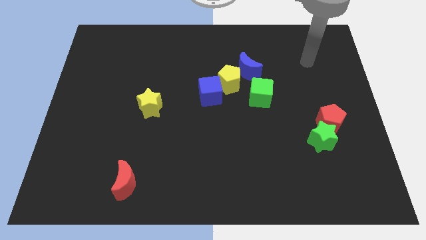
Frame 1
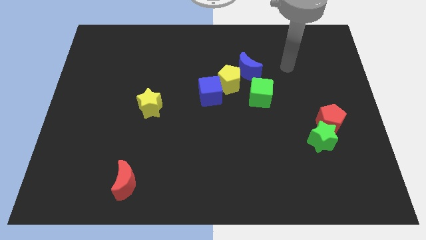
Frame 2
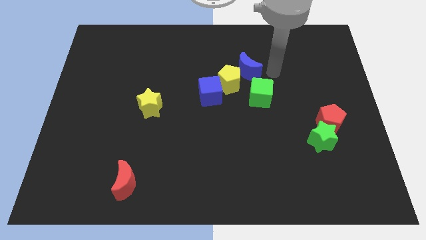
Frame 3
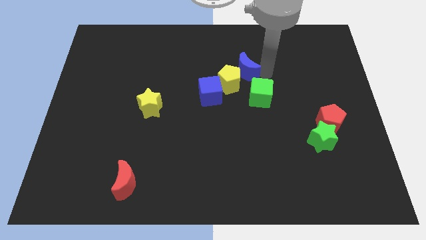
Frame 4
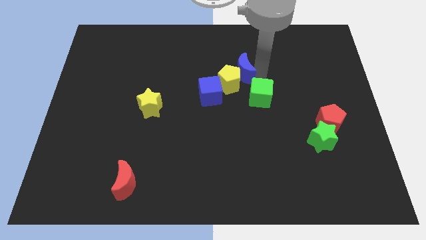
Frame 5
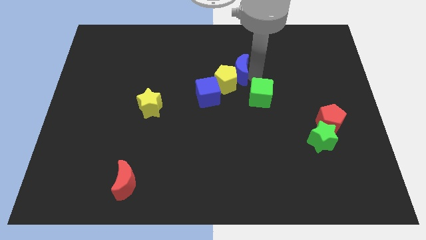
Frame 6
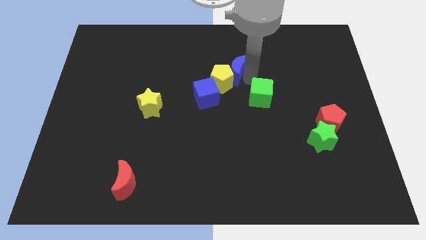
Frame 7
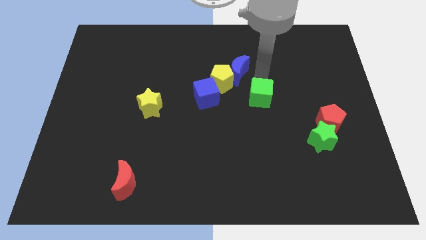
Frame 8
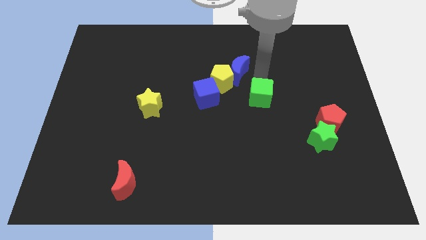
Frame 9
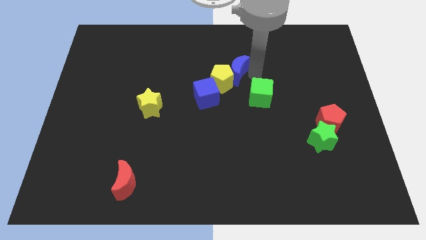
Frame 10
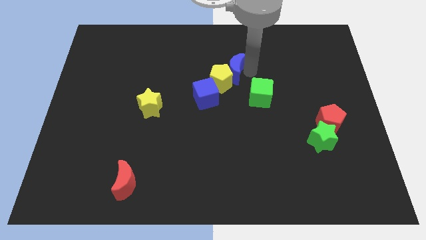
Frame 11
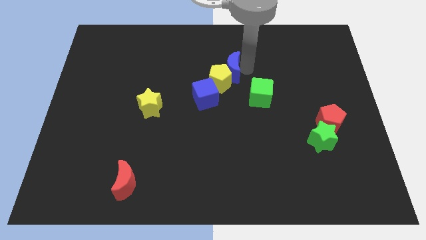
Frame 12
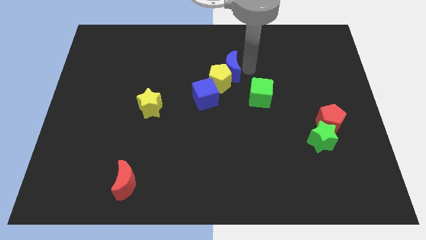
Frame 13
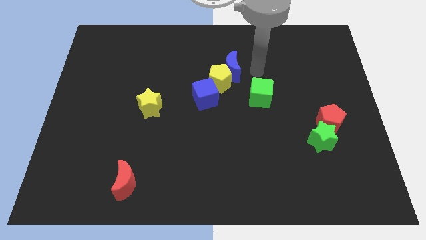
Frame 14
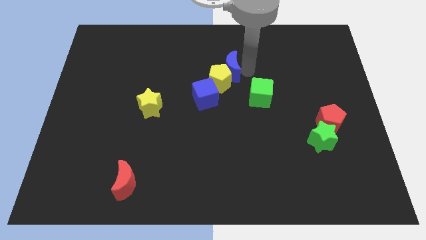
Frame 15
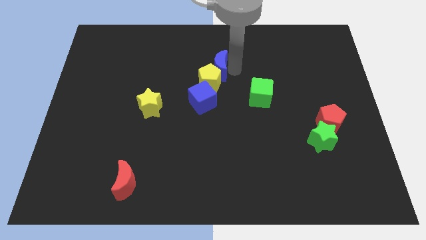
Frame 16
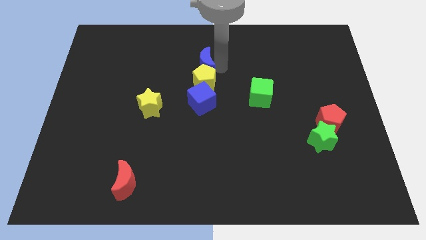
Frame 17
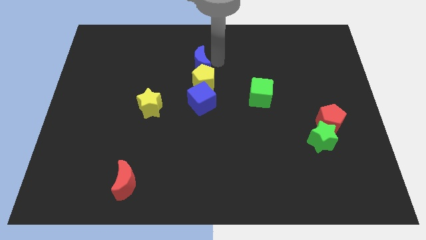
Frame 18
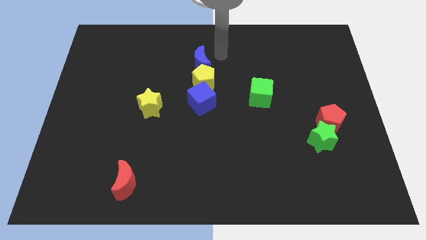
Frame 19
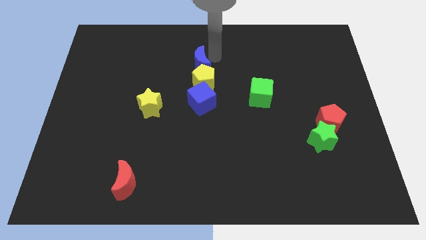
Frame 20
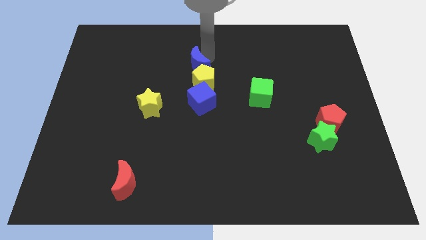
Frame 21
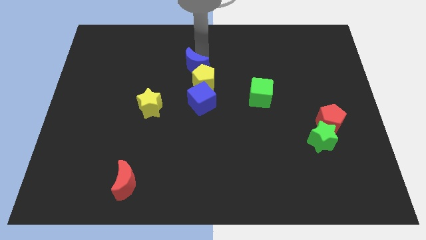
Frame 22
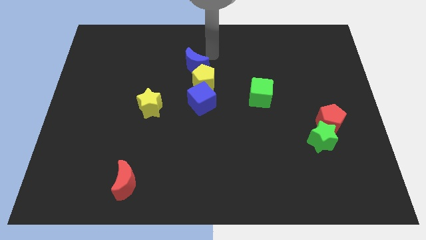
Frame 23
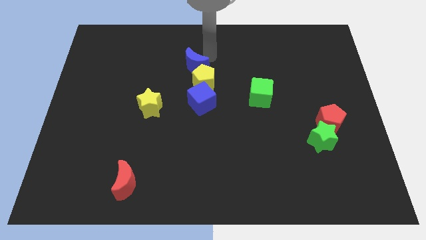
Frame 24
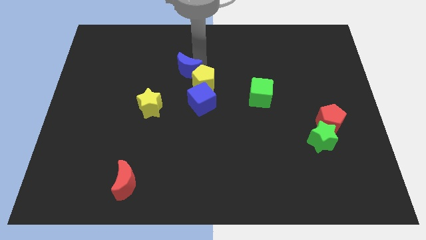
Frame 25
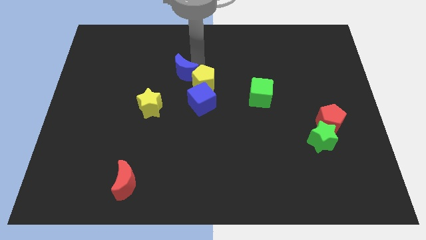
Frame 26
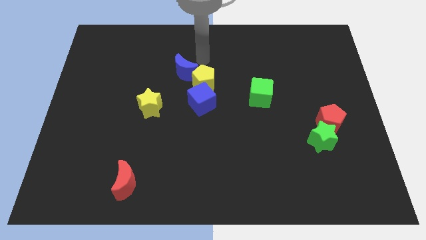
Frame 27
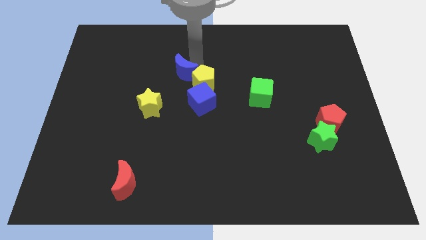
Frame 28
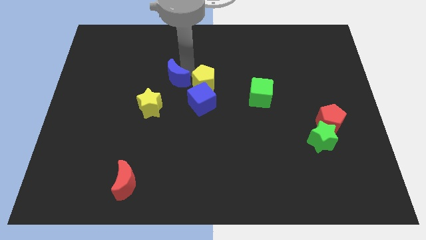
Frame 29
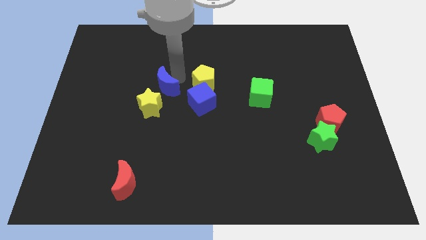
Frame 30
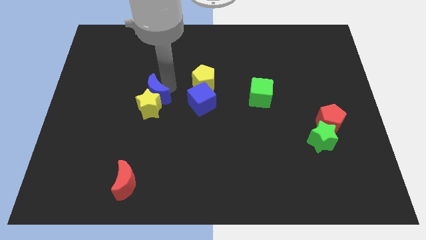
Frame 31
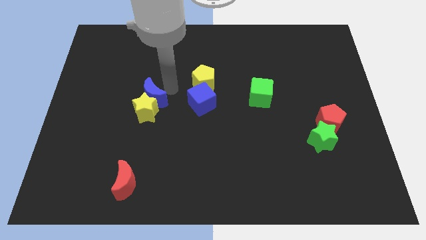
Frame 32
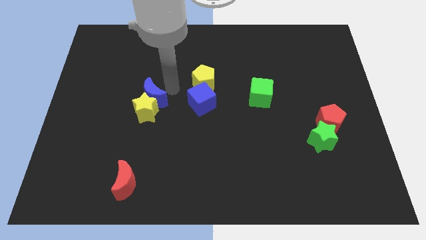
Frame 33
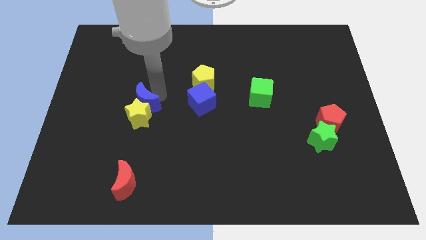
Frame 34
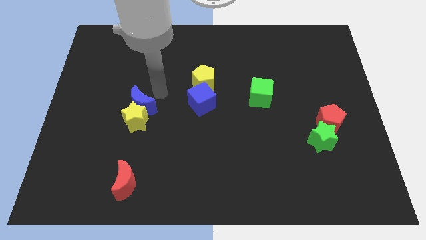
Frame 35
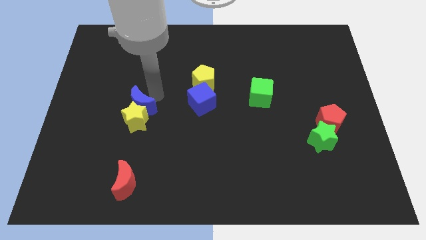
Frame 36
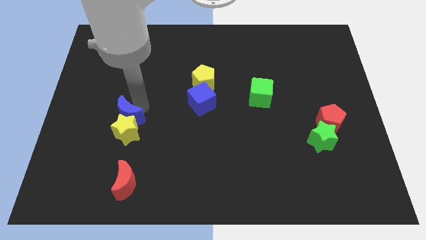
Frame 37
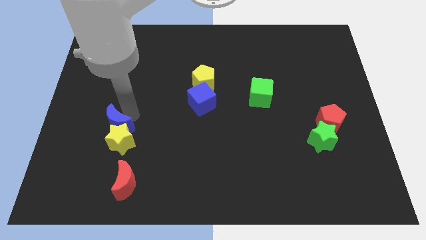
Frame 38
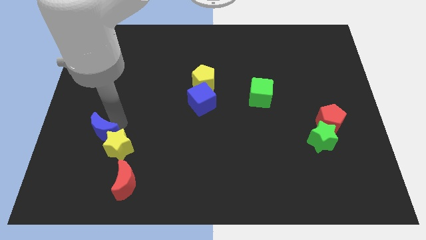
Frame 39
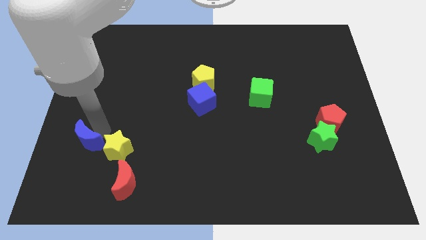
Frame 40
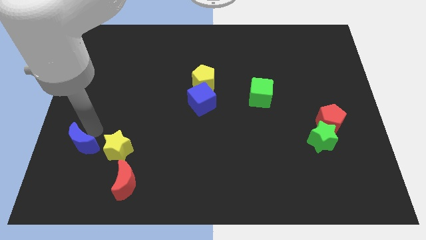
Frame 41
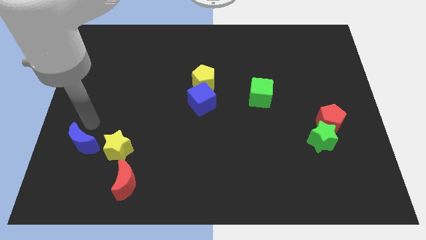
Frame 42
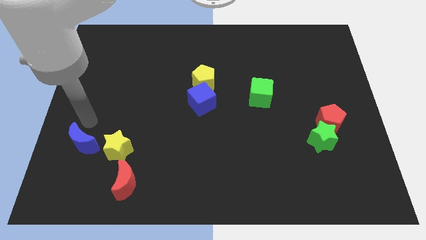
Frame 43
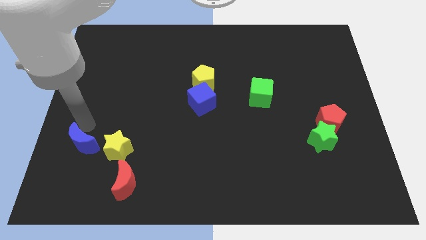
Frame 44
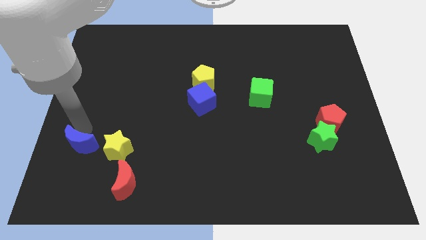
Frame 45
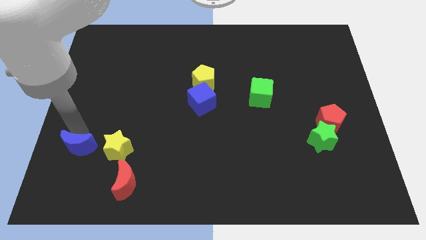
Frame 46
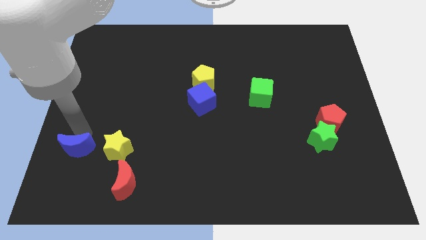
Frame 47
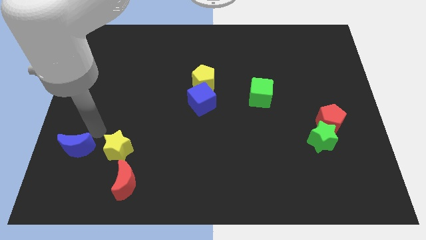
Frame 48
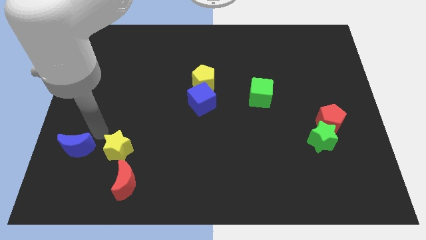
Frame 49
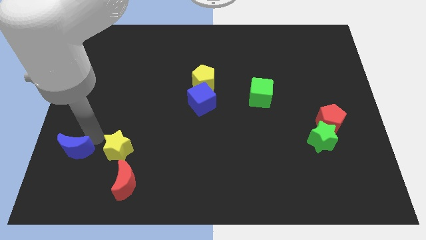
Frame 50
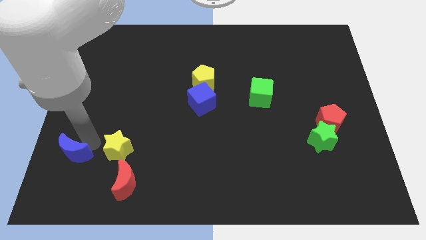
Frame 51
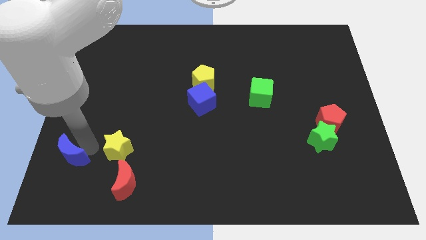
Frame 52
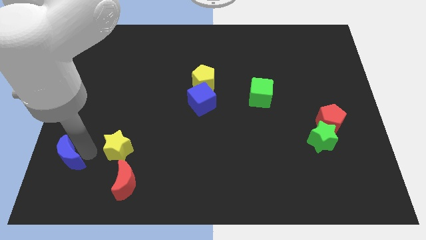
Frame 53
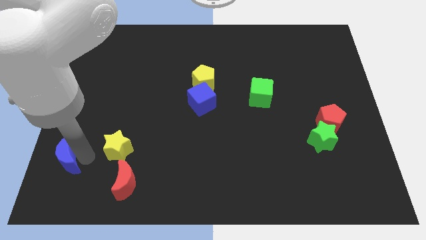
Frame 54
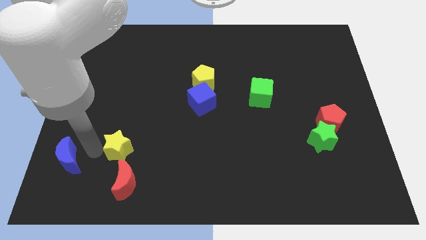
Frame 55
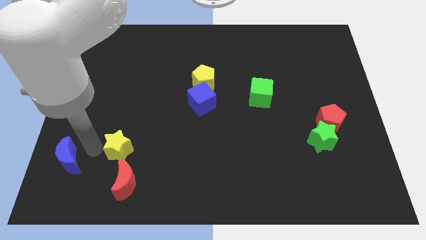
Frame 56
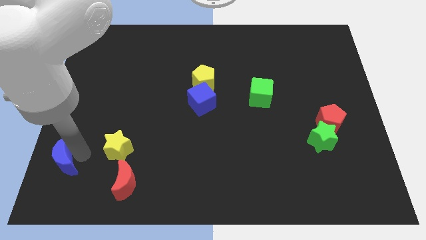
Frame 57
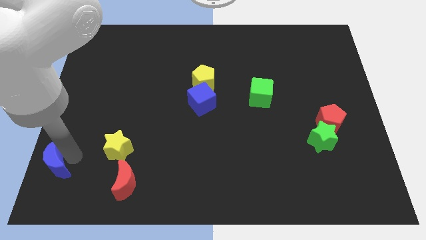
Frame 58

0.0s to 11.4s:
push the blue moon to the bottom left of the board

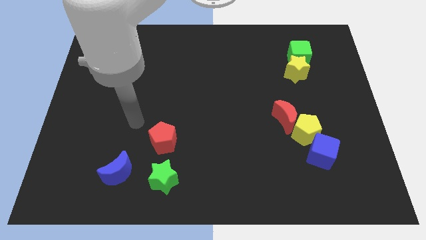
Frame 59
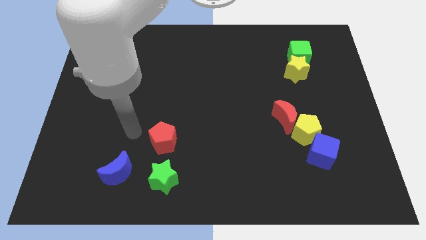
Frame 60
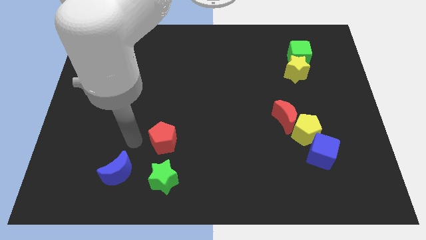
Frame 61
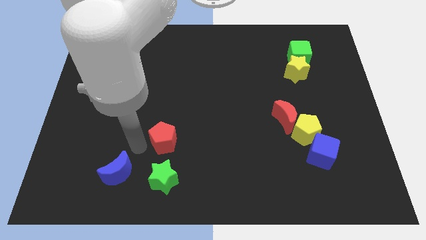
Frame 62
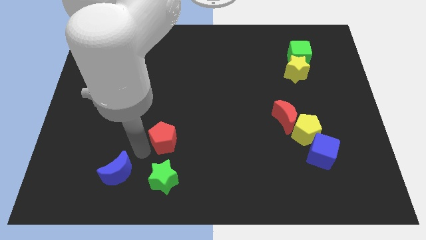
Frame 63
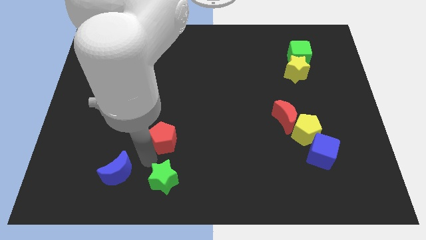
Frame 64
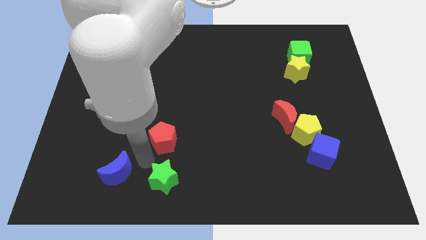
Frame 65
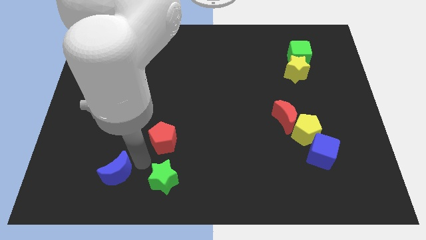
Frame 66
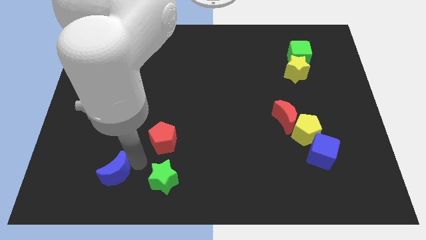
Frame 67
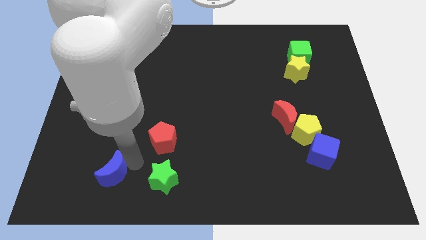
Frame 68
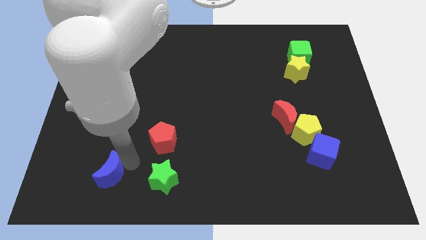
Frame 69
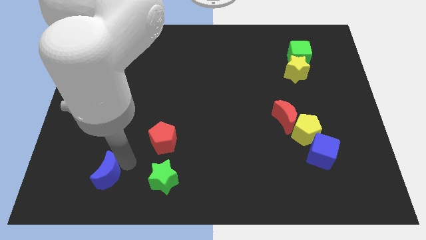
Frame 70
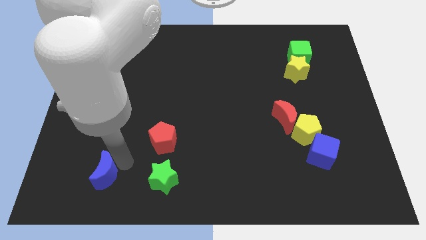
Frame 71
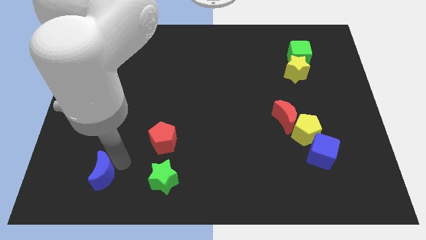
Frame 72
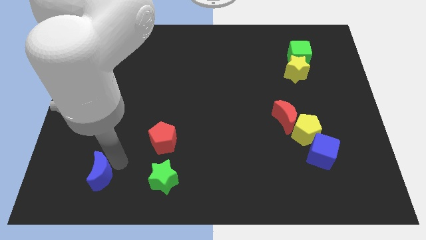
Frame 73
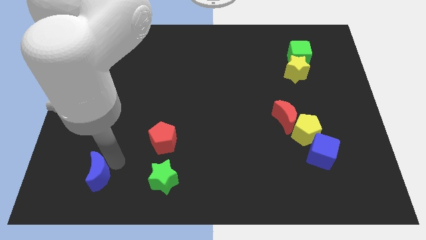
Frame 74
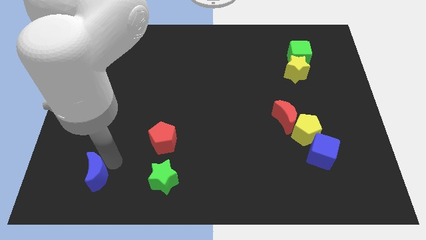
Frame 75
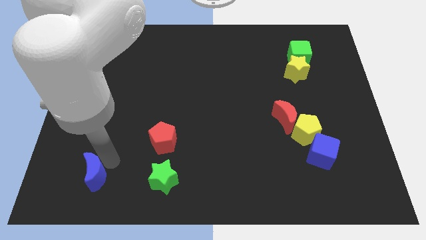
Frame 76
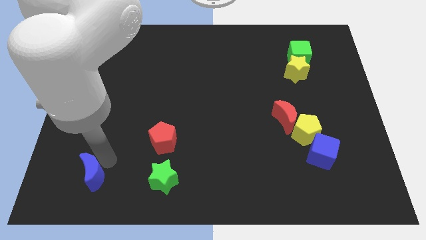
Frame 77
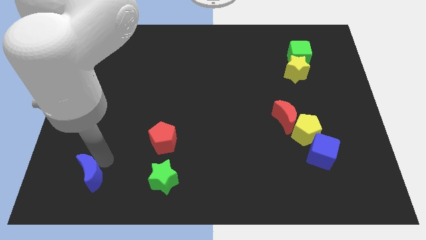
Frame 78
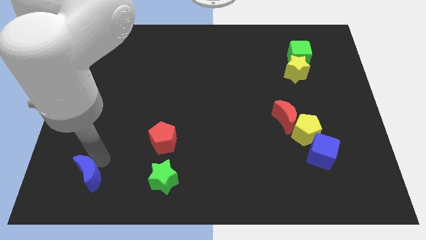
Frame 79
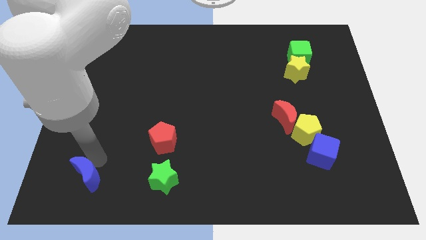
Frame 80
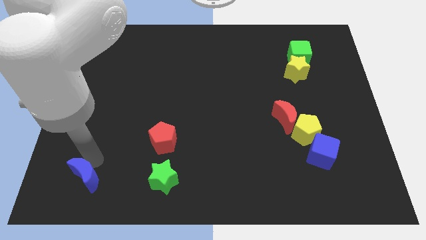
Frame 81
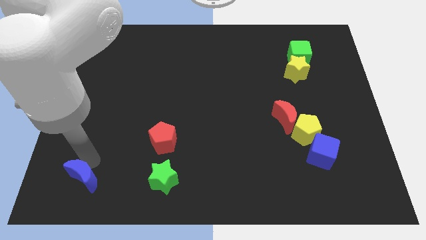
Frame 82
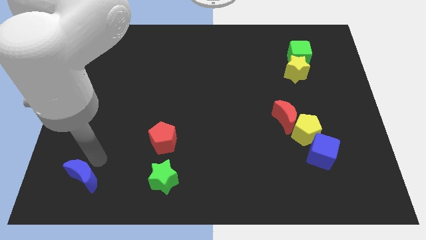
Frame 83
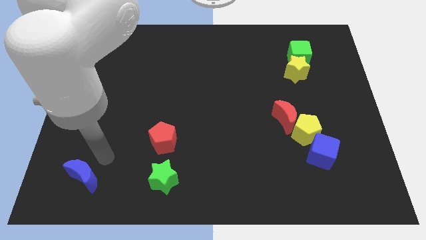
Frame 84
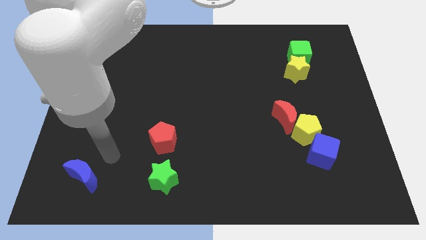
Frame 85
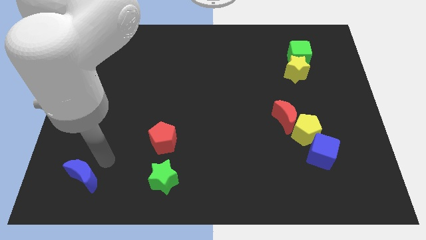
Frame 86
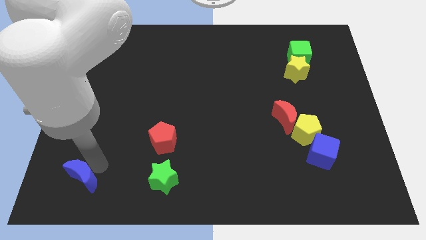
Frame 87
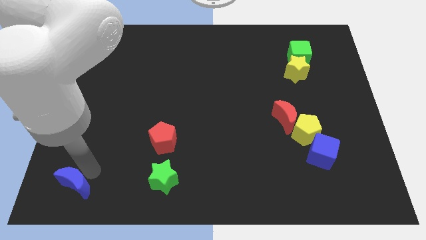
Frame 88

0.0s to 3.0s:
move the blue moon to the bottom left
